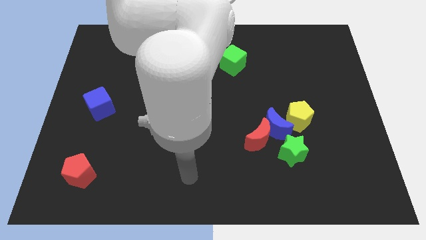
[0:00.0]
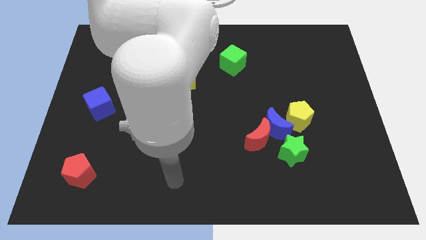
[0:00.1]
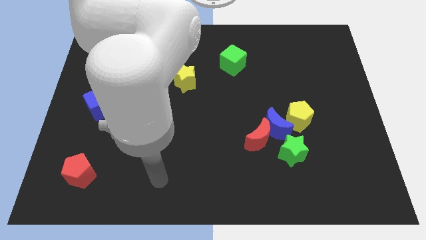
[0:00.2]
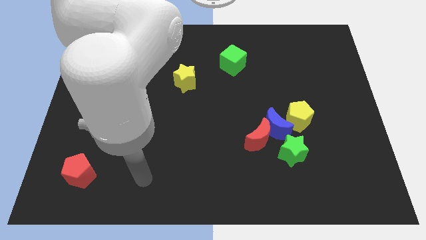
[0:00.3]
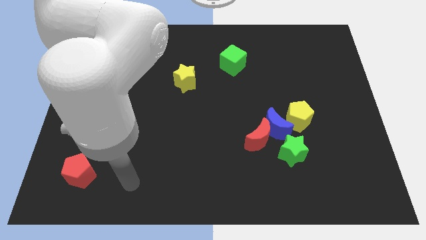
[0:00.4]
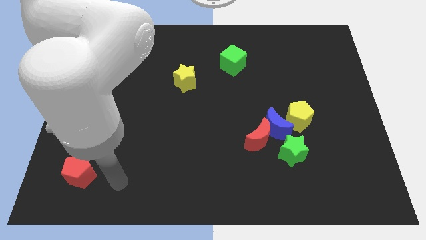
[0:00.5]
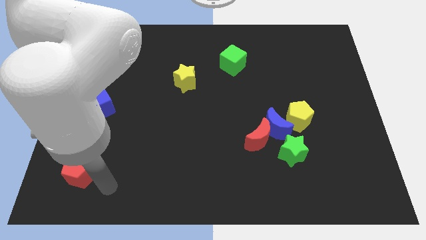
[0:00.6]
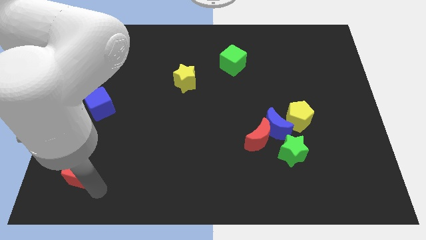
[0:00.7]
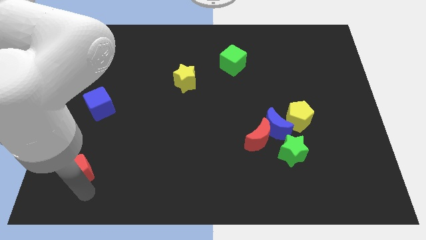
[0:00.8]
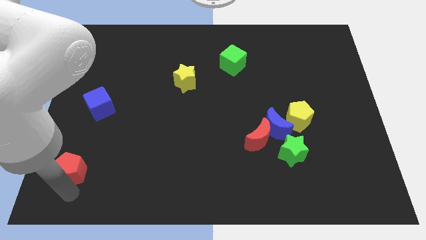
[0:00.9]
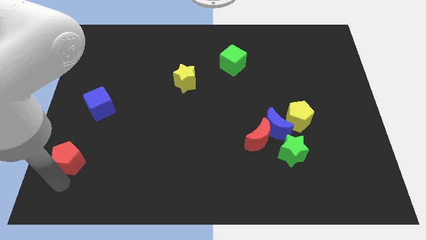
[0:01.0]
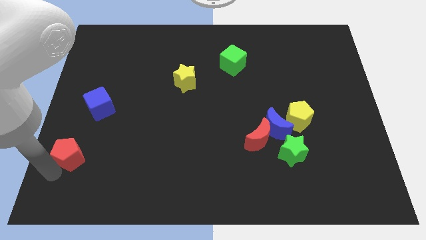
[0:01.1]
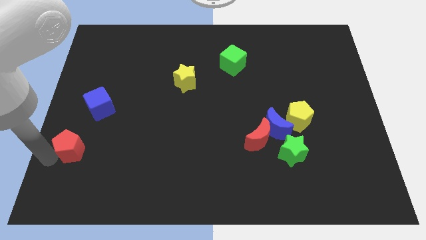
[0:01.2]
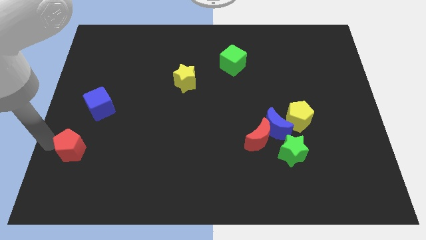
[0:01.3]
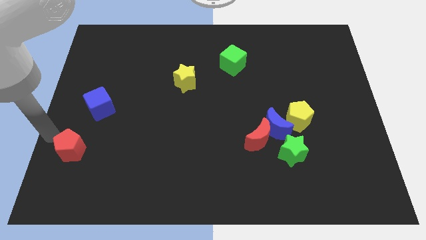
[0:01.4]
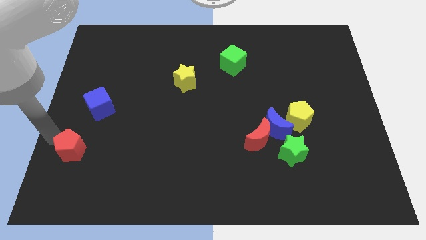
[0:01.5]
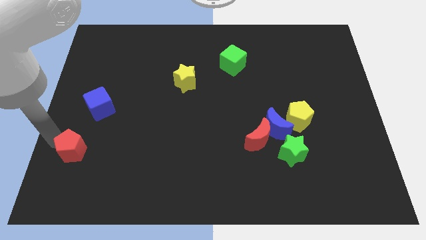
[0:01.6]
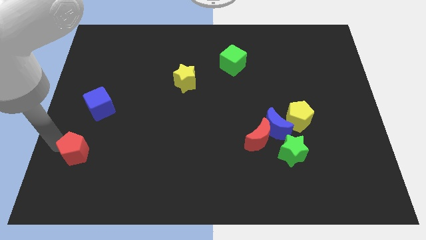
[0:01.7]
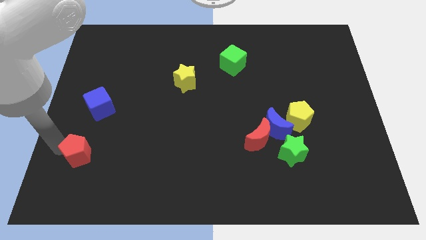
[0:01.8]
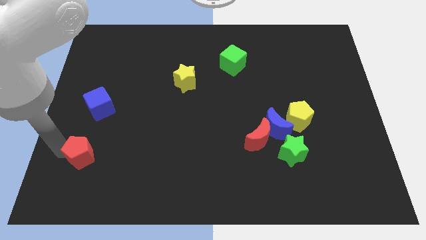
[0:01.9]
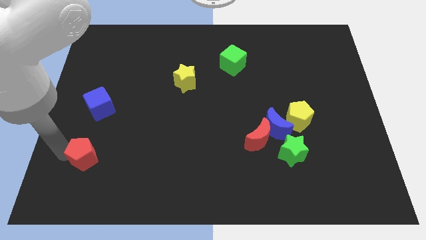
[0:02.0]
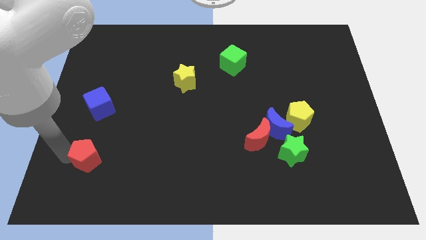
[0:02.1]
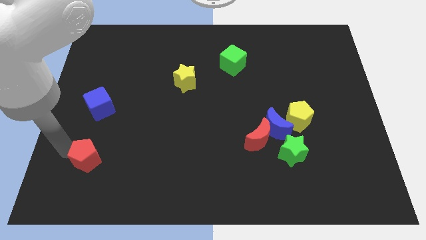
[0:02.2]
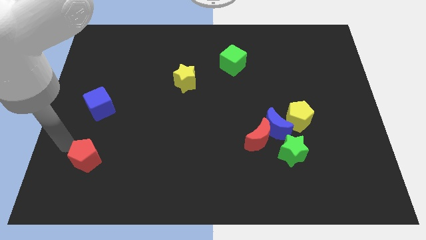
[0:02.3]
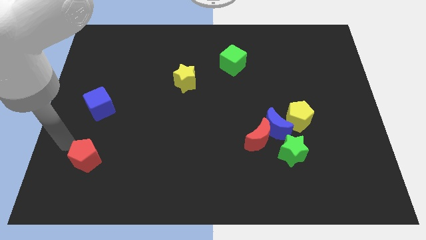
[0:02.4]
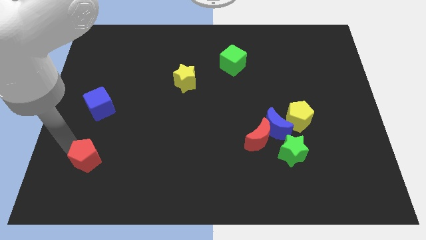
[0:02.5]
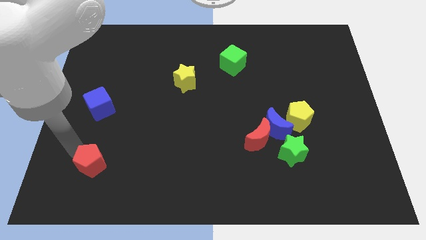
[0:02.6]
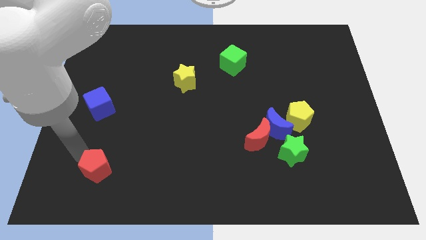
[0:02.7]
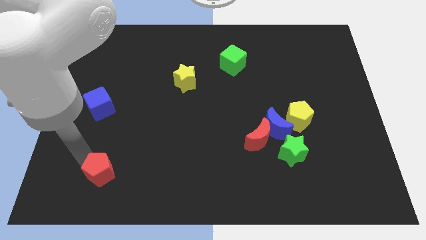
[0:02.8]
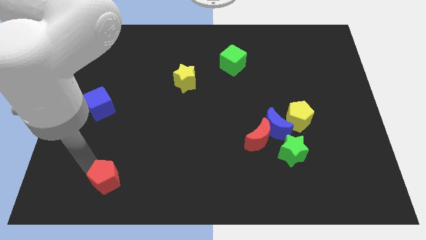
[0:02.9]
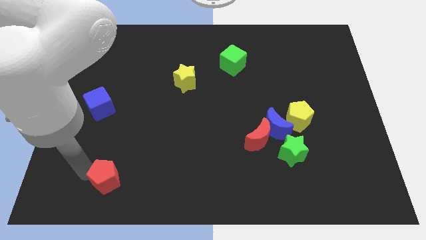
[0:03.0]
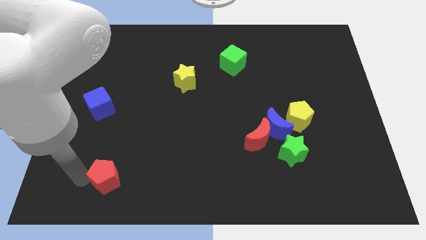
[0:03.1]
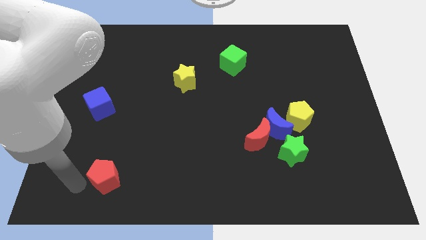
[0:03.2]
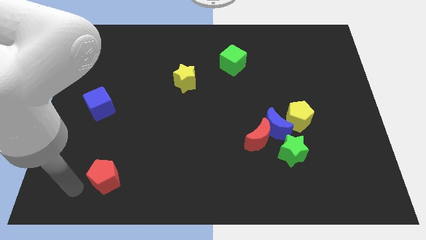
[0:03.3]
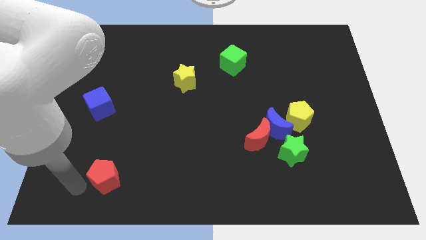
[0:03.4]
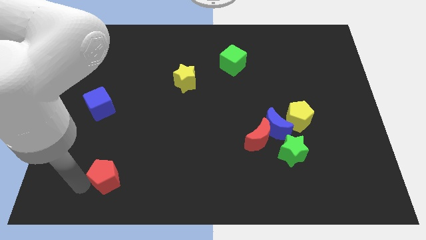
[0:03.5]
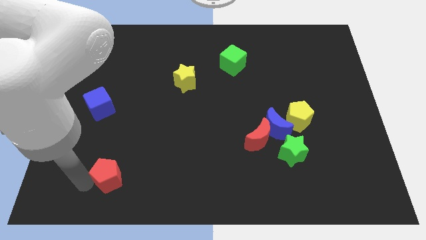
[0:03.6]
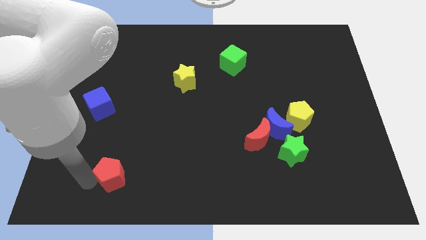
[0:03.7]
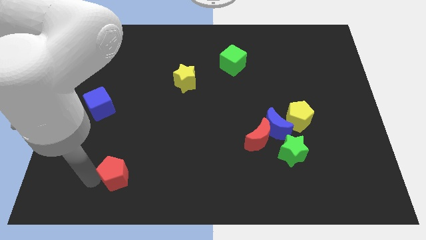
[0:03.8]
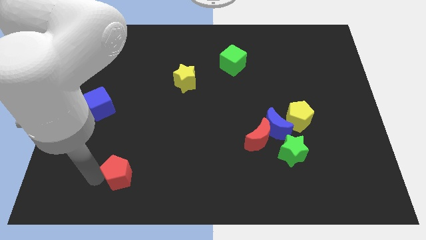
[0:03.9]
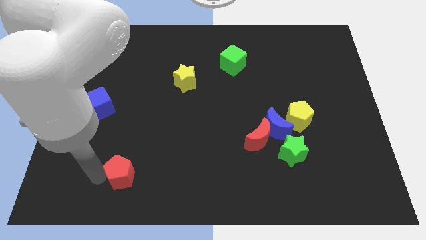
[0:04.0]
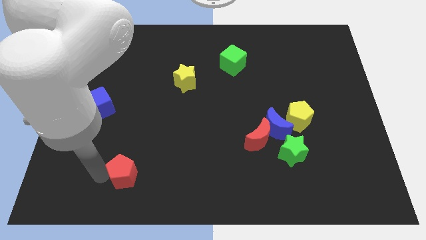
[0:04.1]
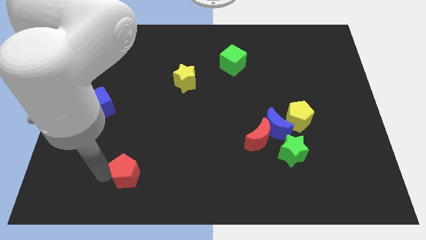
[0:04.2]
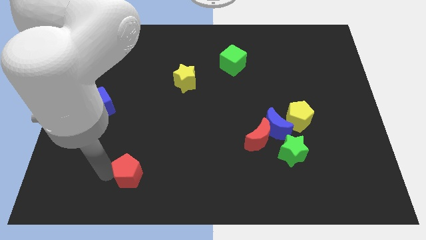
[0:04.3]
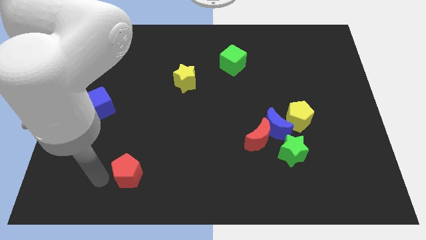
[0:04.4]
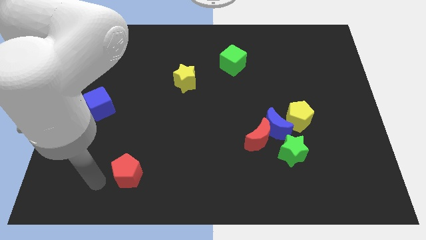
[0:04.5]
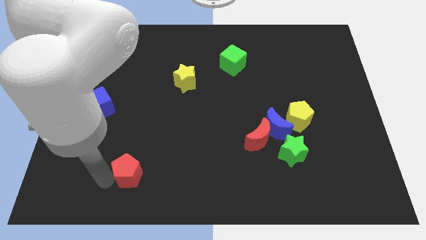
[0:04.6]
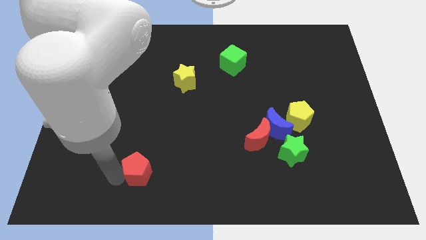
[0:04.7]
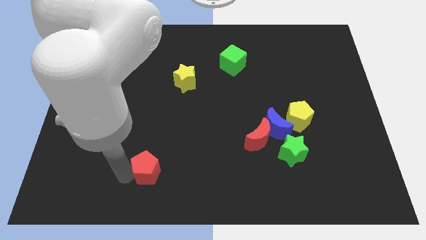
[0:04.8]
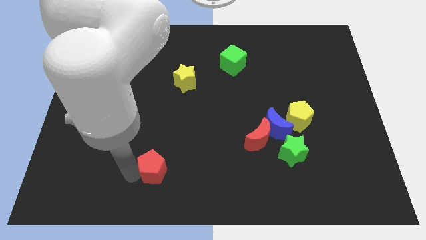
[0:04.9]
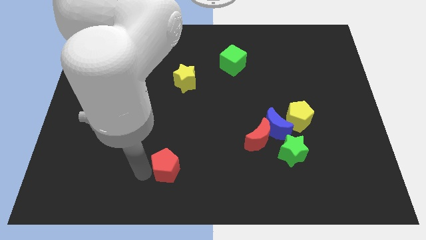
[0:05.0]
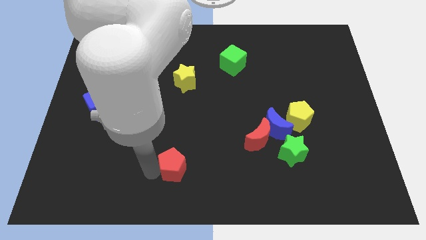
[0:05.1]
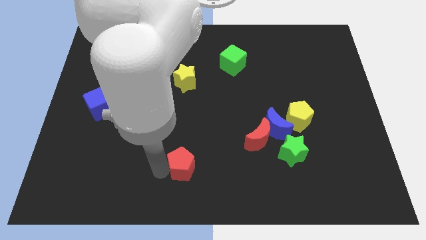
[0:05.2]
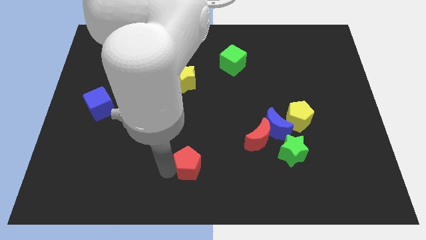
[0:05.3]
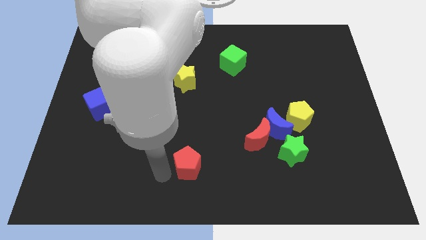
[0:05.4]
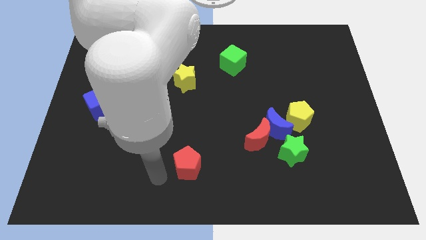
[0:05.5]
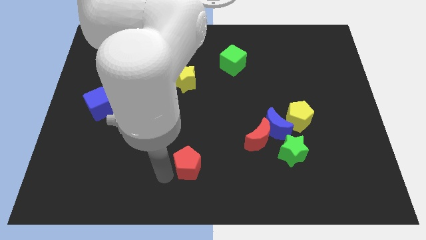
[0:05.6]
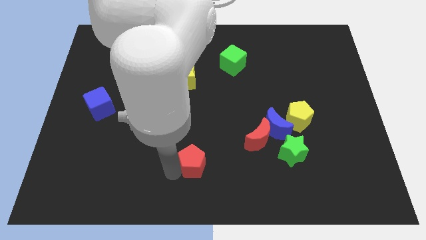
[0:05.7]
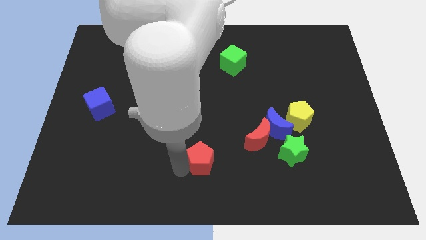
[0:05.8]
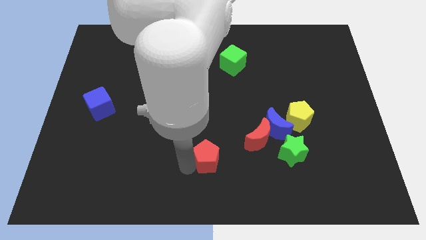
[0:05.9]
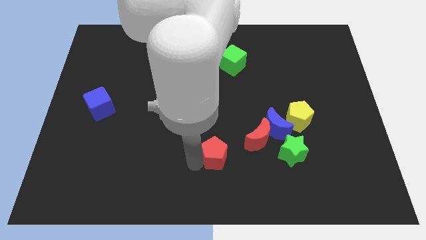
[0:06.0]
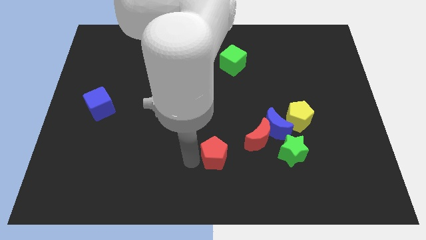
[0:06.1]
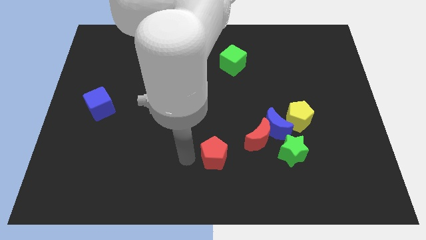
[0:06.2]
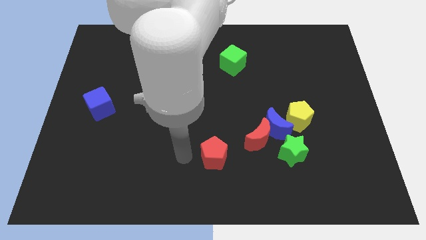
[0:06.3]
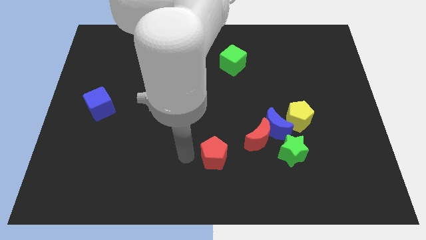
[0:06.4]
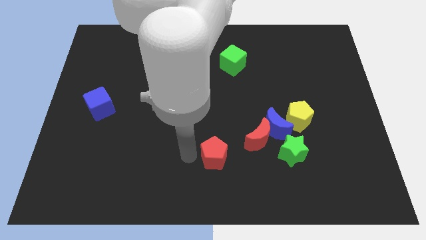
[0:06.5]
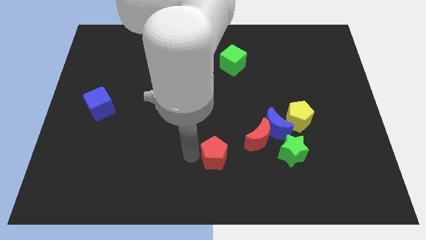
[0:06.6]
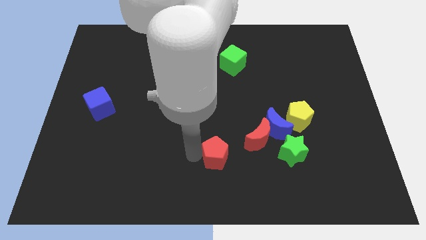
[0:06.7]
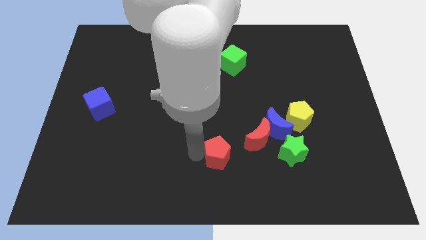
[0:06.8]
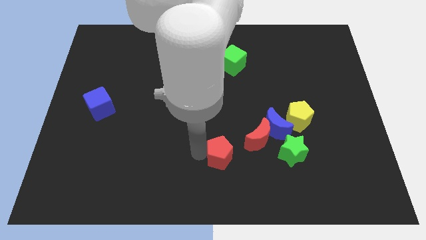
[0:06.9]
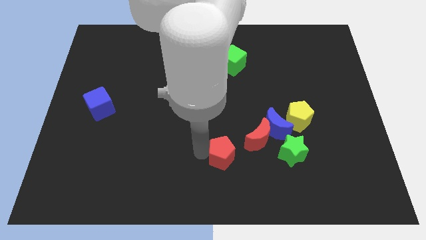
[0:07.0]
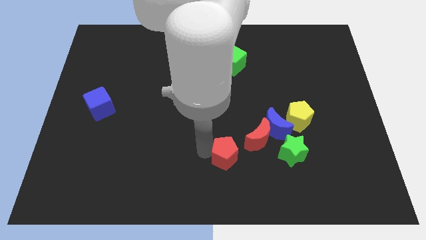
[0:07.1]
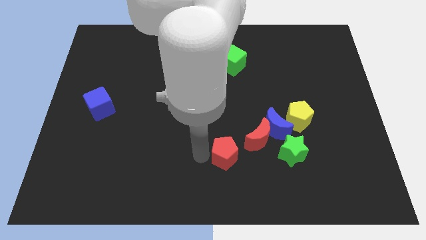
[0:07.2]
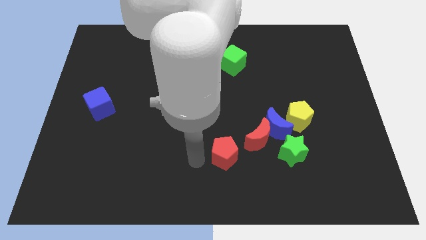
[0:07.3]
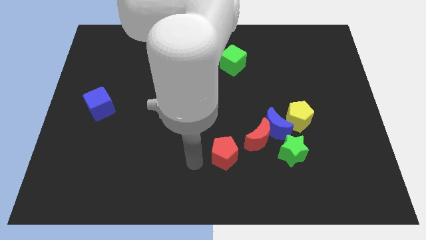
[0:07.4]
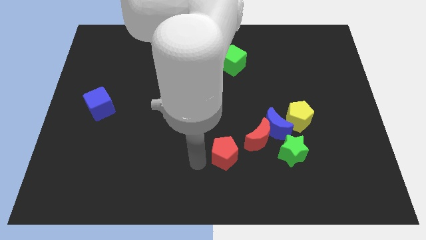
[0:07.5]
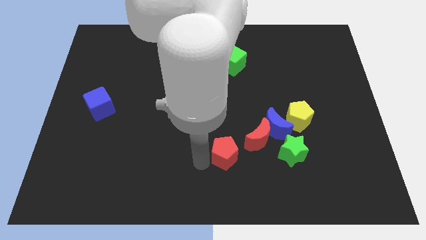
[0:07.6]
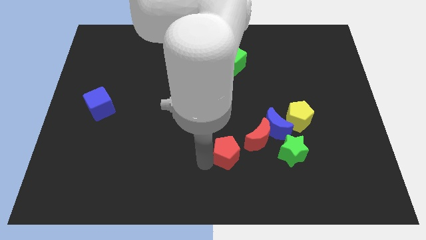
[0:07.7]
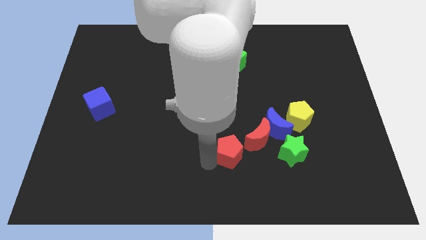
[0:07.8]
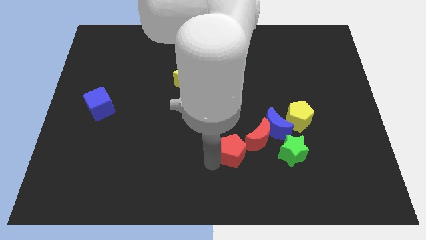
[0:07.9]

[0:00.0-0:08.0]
put the red pentagon diagonally down and to the left of the blue moon

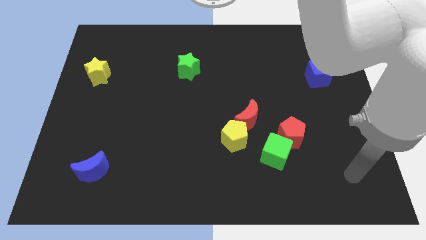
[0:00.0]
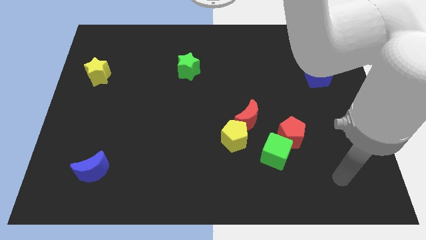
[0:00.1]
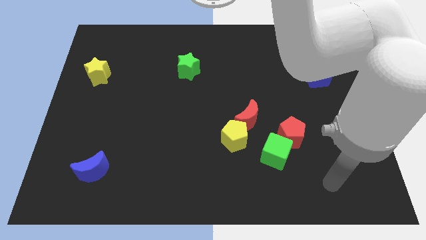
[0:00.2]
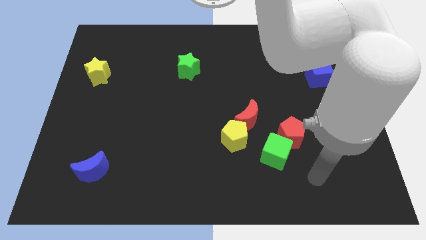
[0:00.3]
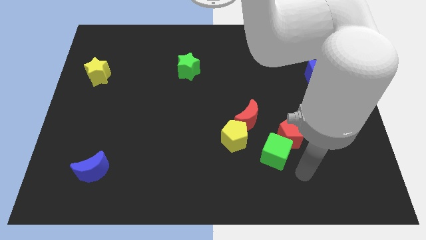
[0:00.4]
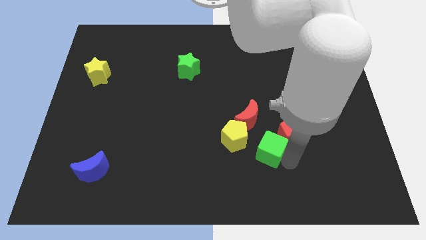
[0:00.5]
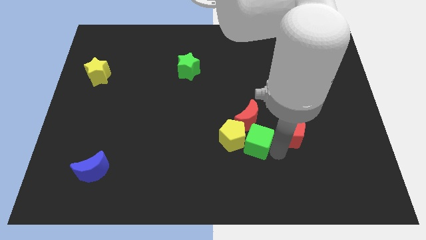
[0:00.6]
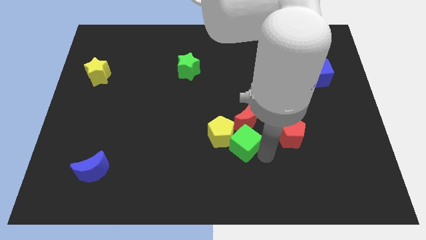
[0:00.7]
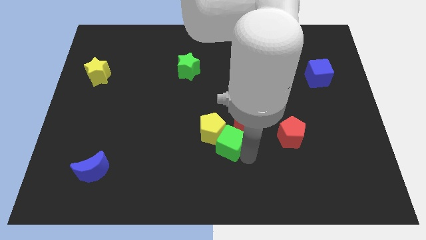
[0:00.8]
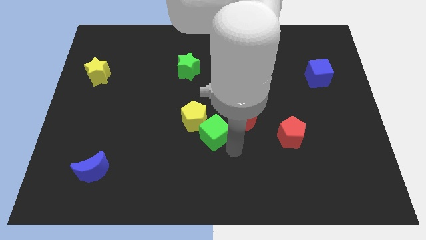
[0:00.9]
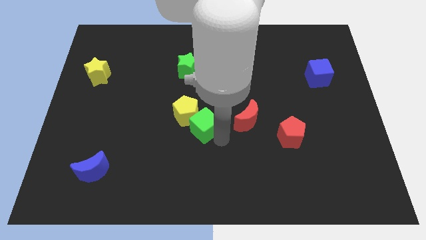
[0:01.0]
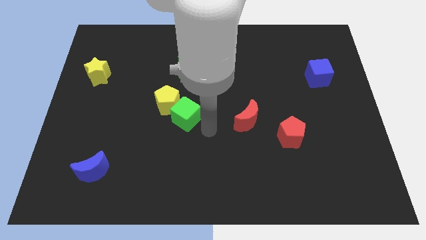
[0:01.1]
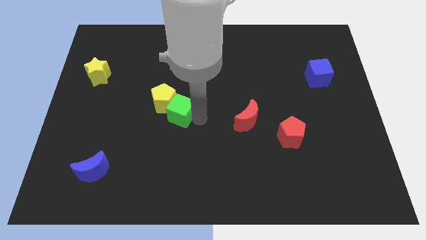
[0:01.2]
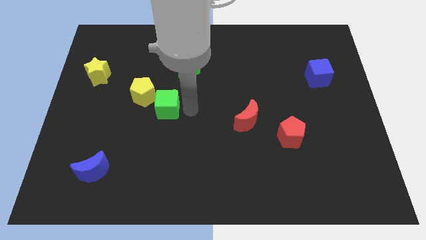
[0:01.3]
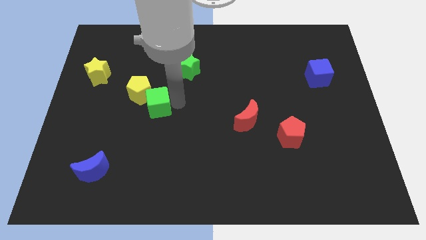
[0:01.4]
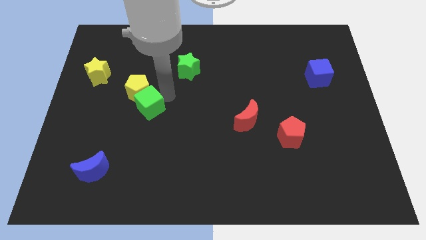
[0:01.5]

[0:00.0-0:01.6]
move the yellow pentagon to the bottom right of the yellow star
